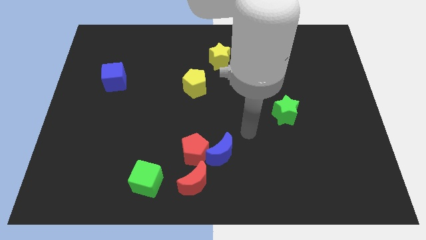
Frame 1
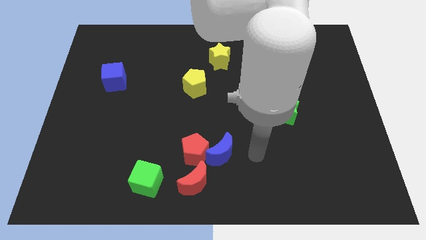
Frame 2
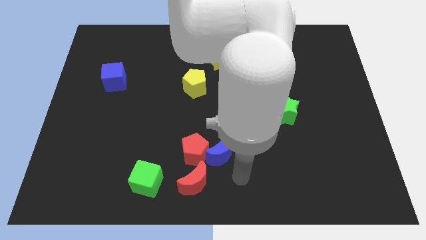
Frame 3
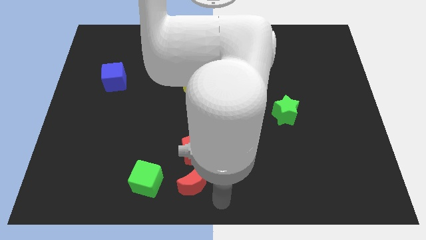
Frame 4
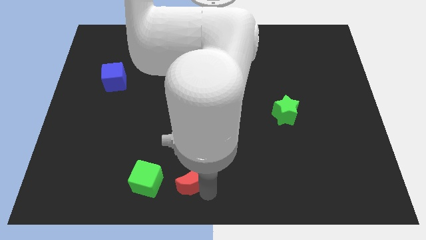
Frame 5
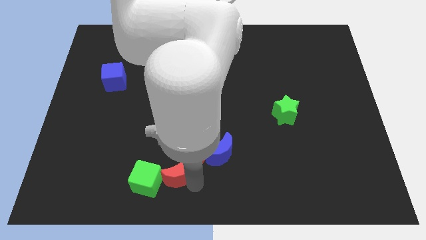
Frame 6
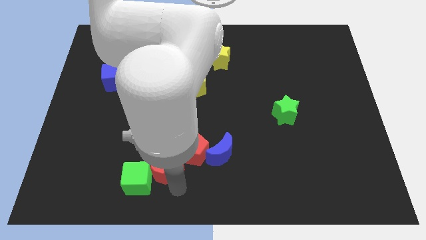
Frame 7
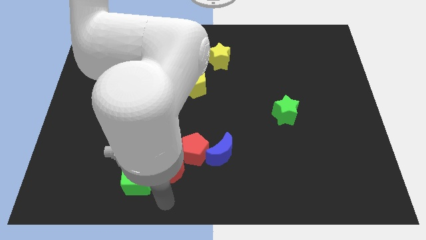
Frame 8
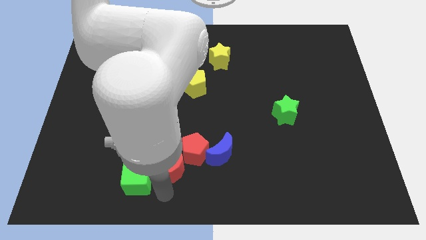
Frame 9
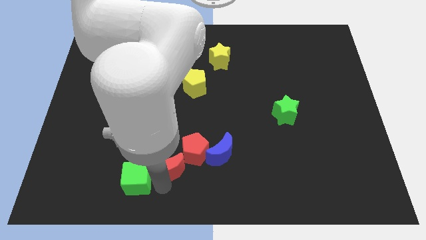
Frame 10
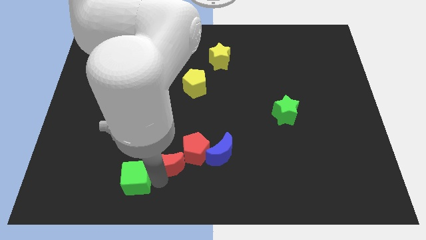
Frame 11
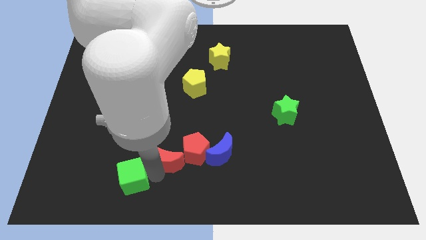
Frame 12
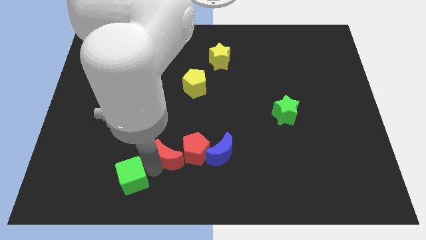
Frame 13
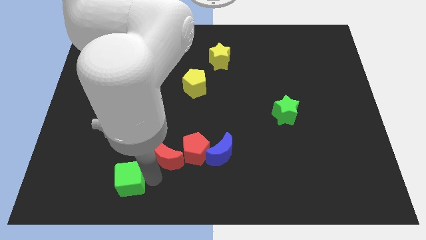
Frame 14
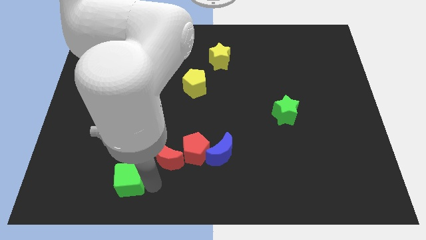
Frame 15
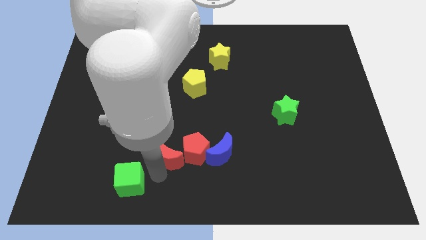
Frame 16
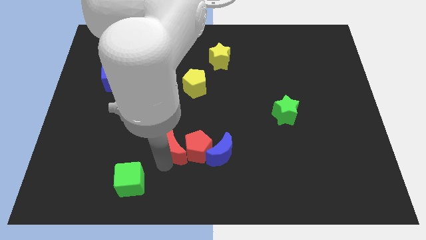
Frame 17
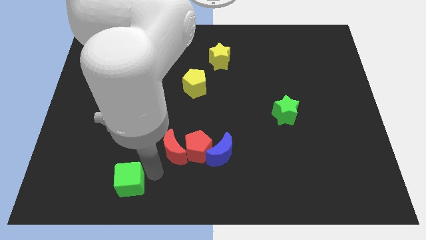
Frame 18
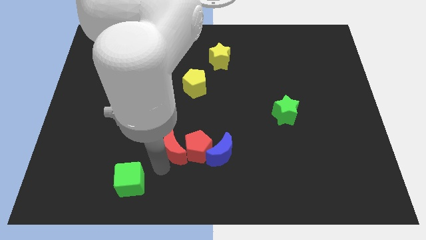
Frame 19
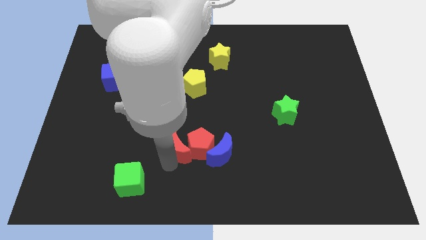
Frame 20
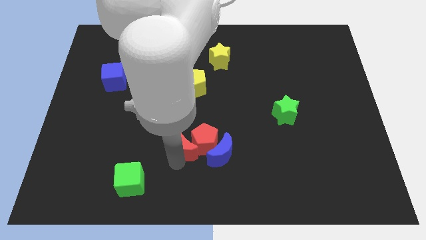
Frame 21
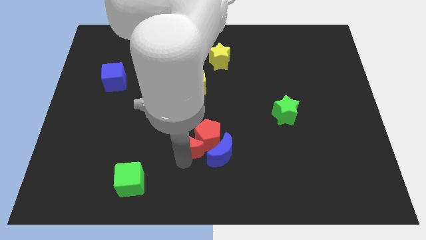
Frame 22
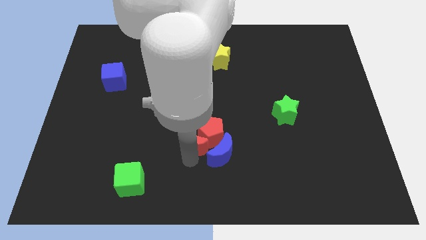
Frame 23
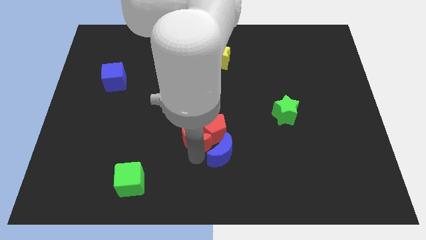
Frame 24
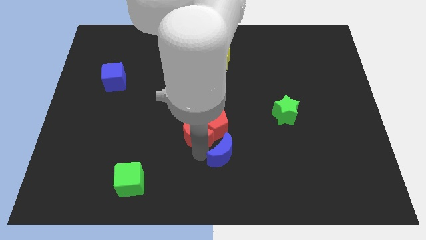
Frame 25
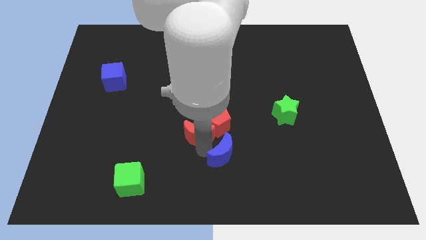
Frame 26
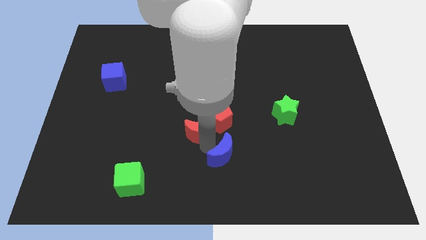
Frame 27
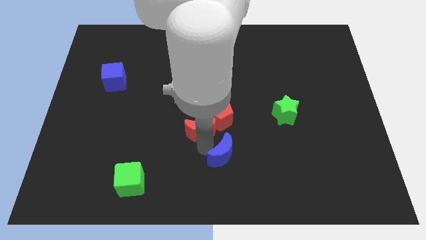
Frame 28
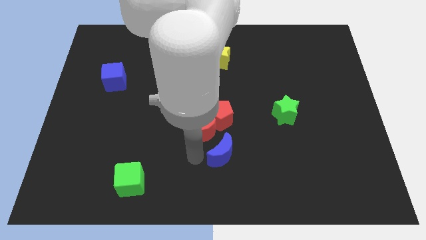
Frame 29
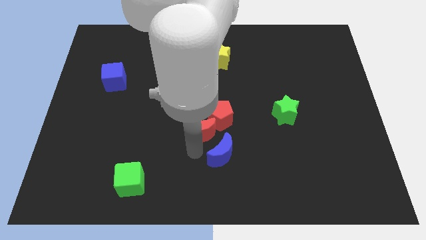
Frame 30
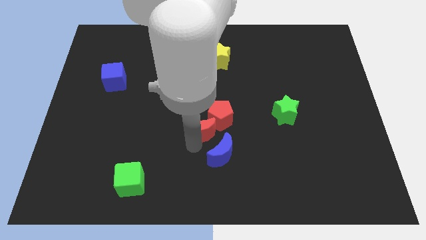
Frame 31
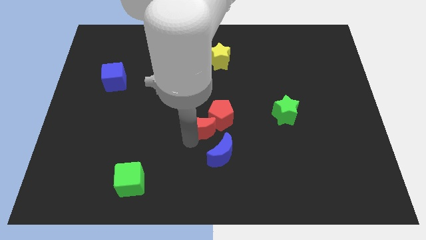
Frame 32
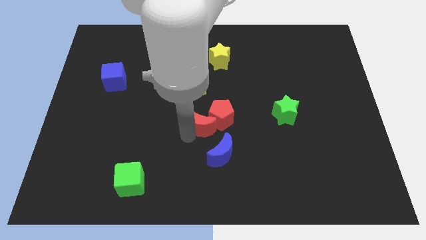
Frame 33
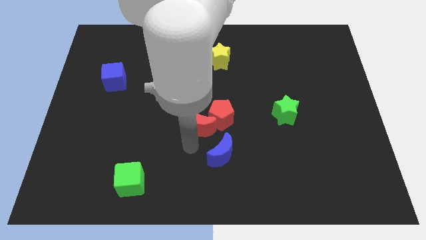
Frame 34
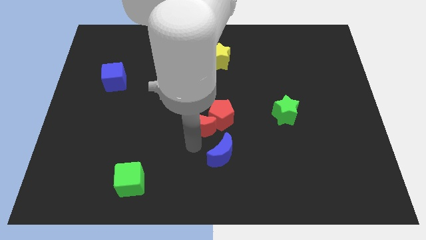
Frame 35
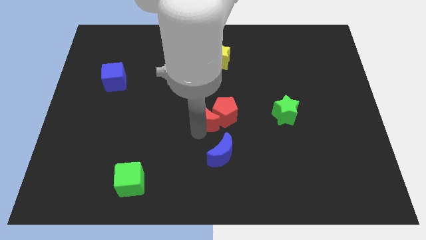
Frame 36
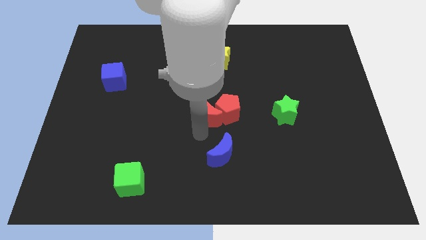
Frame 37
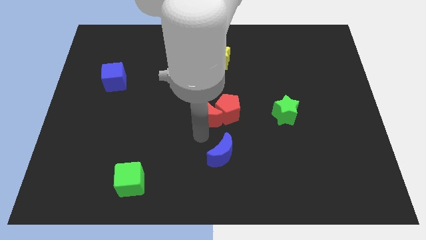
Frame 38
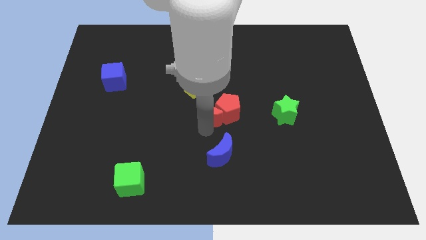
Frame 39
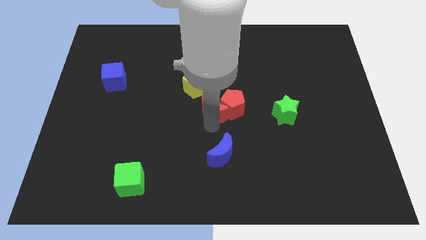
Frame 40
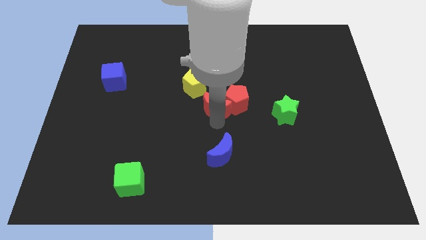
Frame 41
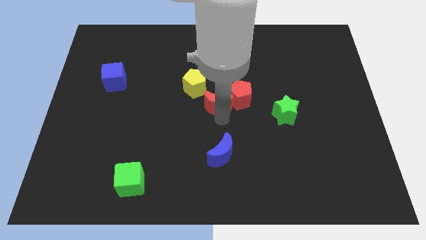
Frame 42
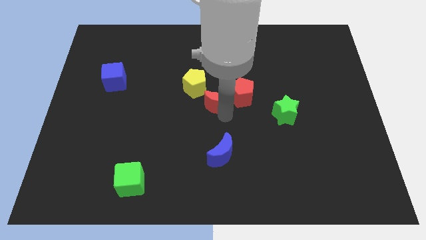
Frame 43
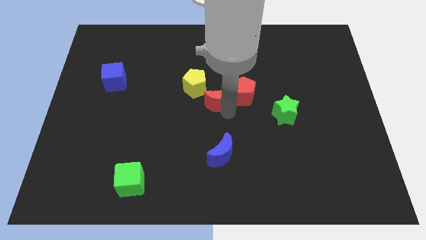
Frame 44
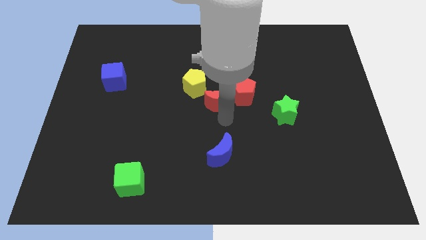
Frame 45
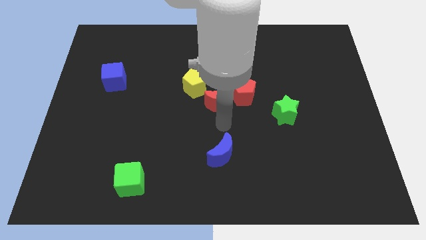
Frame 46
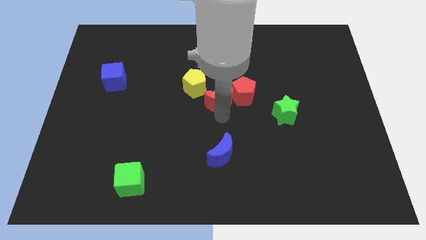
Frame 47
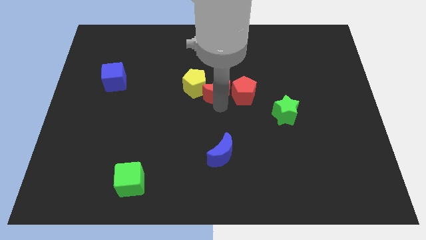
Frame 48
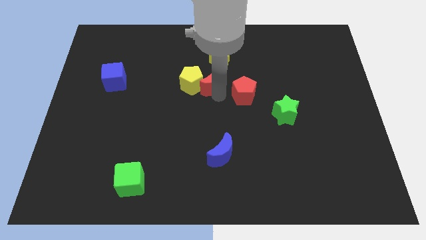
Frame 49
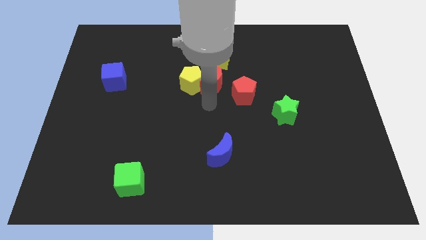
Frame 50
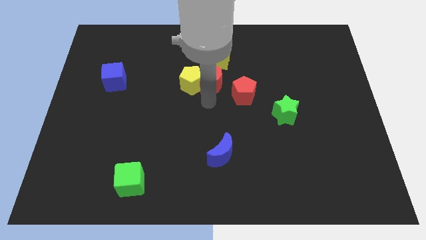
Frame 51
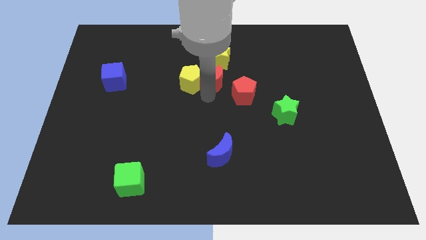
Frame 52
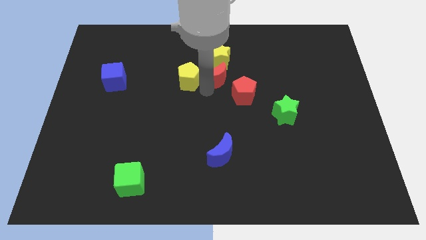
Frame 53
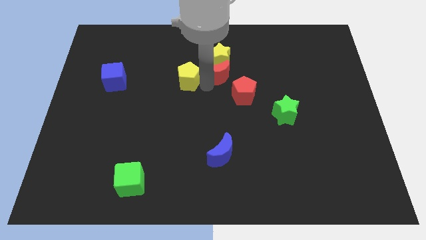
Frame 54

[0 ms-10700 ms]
push the red moon close to the yellow star

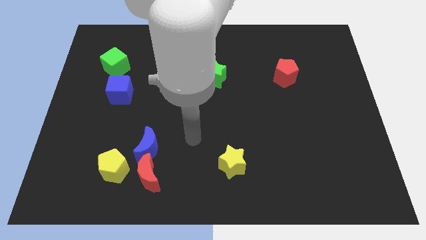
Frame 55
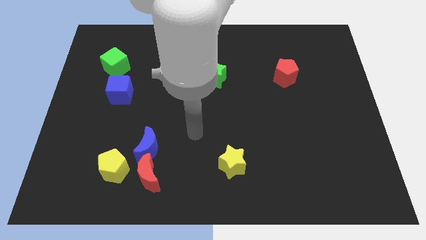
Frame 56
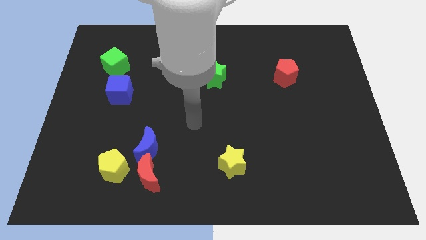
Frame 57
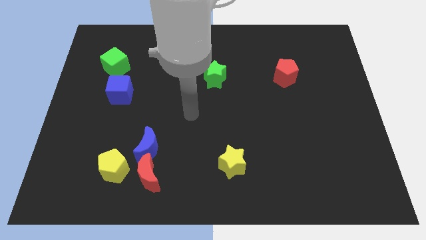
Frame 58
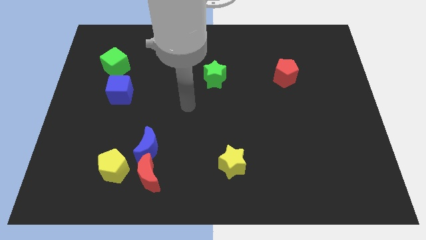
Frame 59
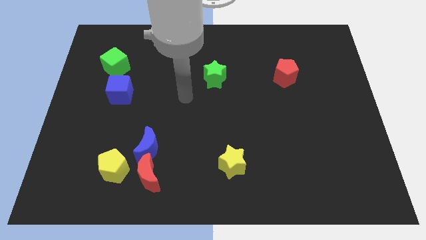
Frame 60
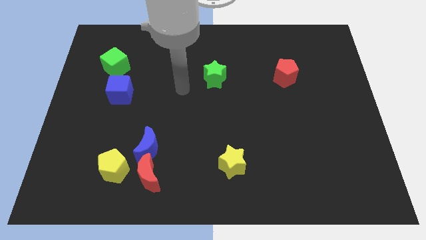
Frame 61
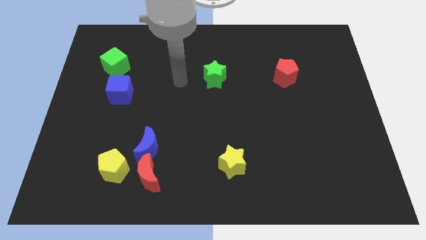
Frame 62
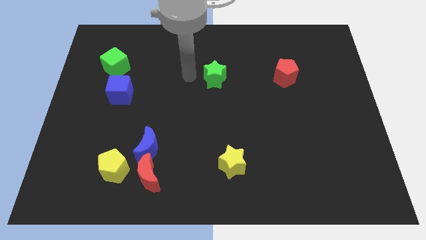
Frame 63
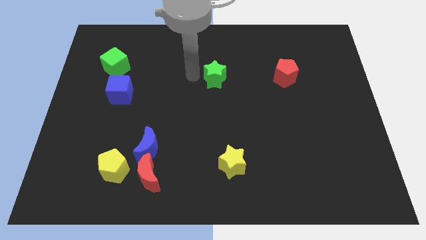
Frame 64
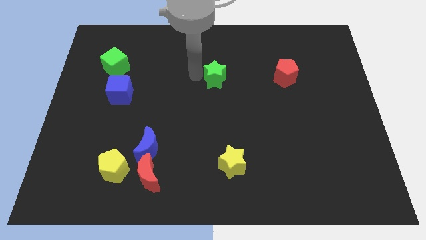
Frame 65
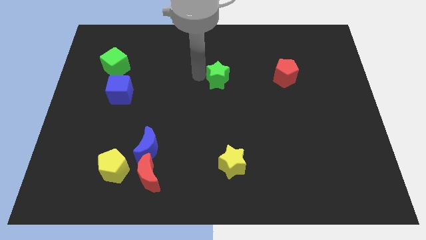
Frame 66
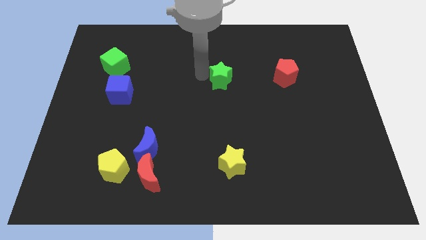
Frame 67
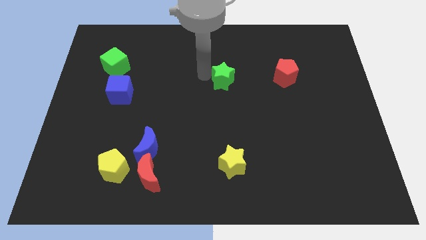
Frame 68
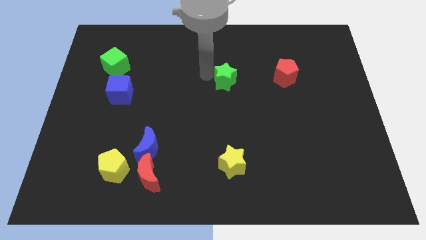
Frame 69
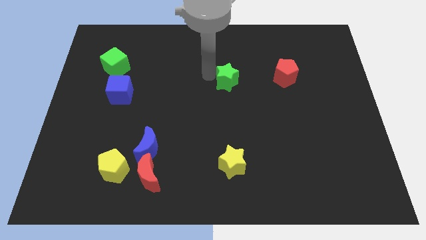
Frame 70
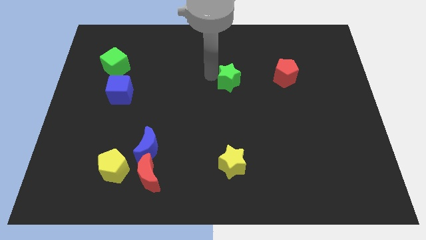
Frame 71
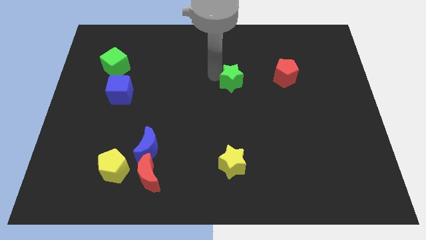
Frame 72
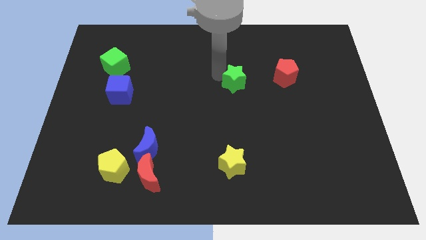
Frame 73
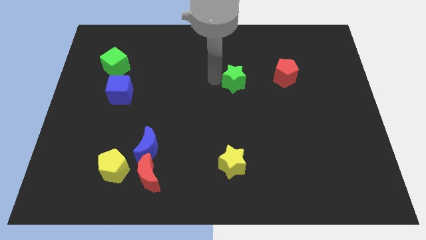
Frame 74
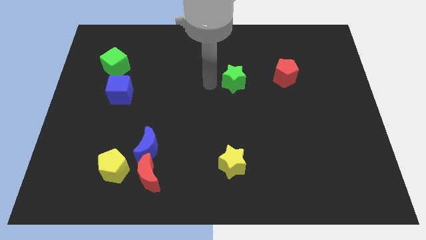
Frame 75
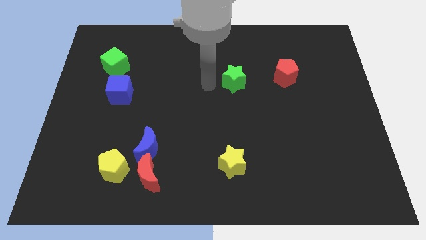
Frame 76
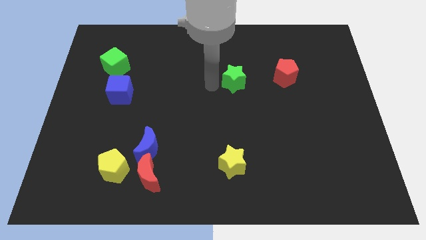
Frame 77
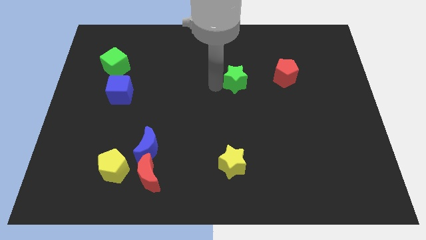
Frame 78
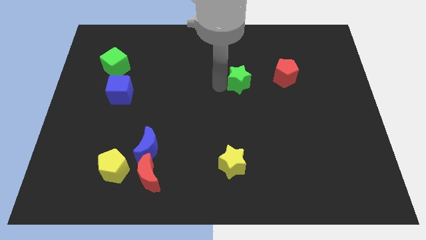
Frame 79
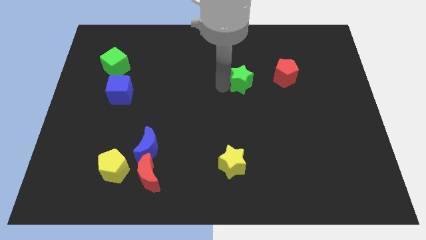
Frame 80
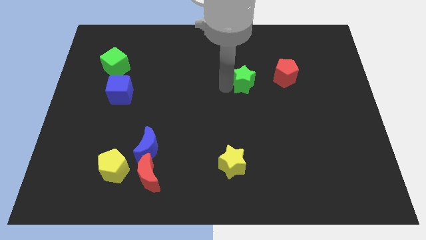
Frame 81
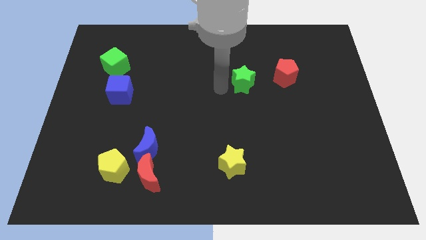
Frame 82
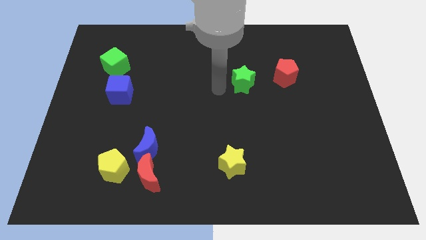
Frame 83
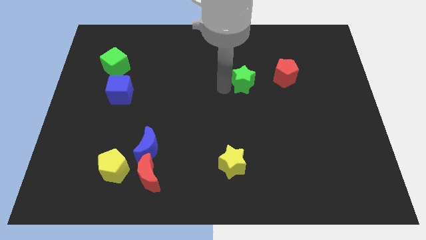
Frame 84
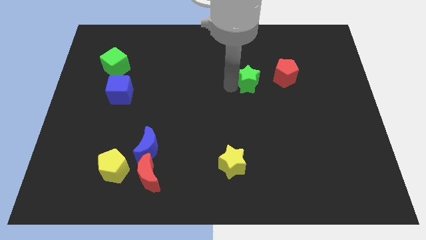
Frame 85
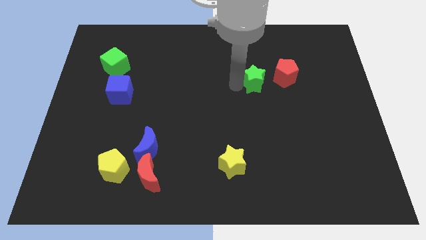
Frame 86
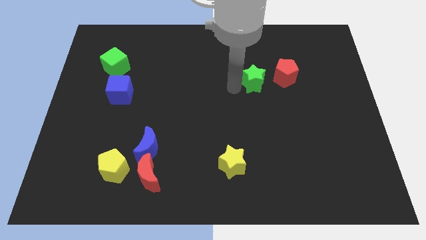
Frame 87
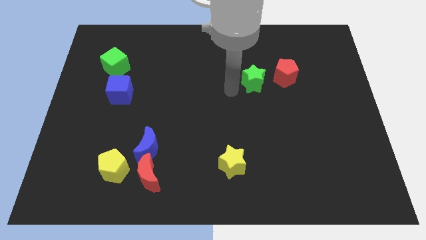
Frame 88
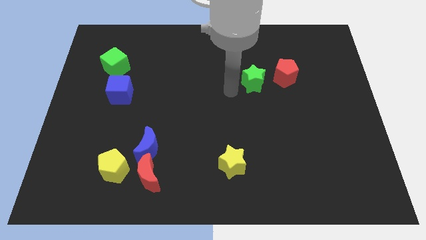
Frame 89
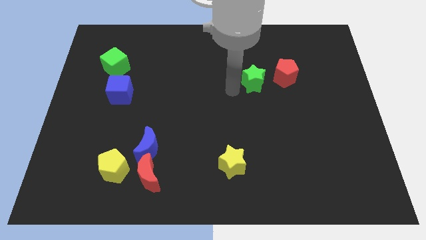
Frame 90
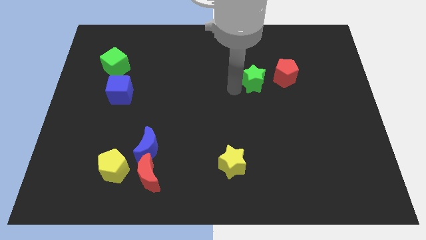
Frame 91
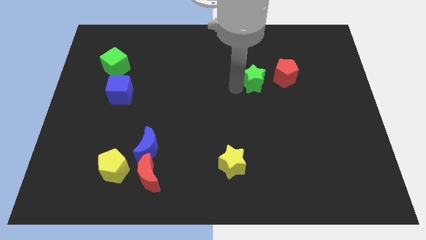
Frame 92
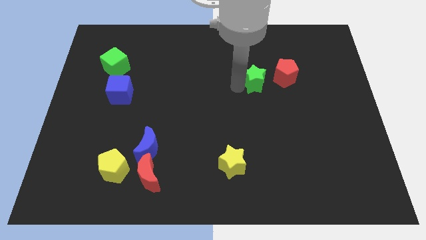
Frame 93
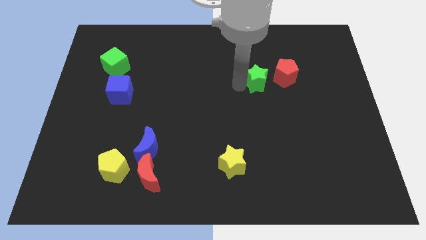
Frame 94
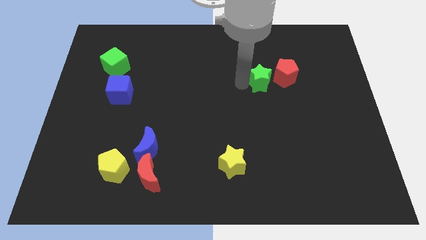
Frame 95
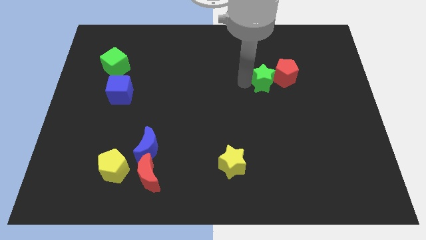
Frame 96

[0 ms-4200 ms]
slide the green star close to the red pentagon
